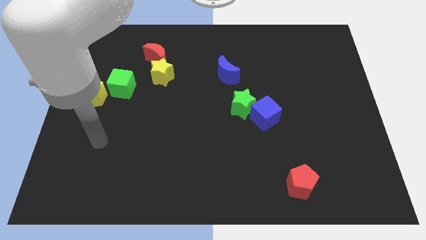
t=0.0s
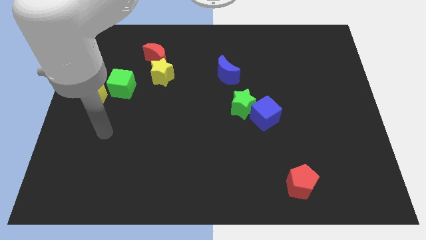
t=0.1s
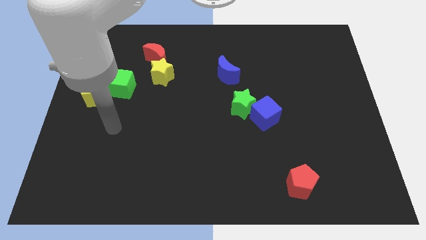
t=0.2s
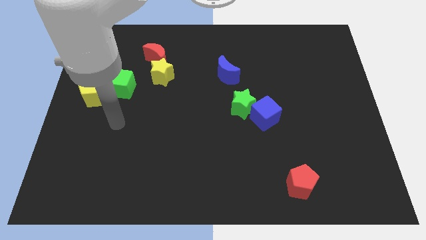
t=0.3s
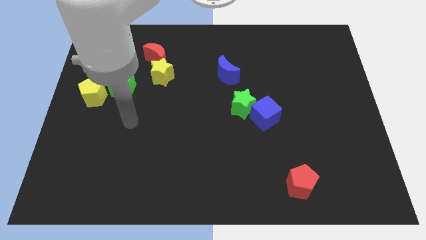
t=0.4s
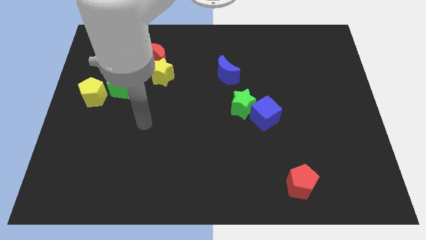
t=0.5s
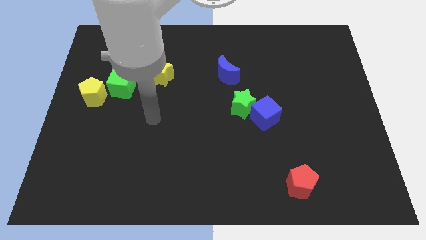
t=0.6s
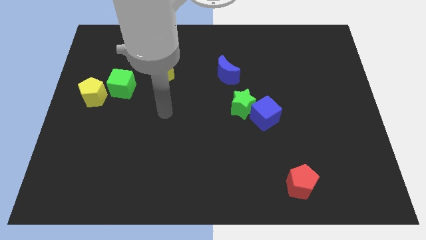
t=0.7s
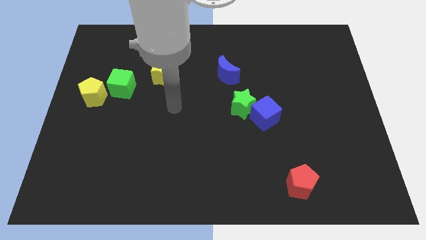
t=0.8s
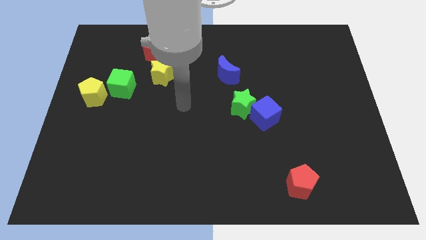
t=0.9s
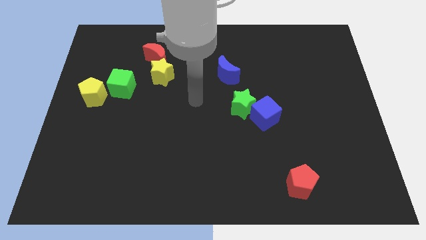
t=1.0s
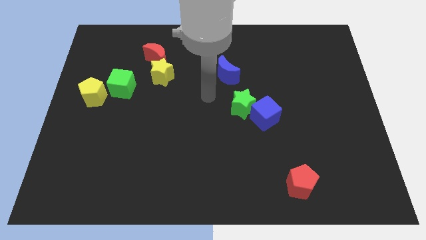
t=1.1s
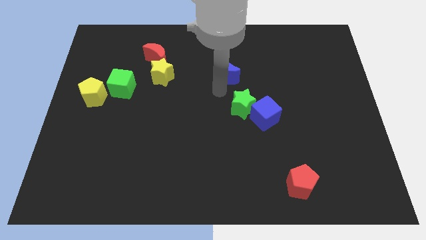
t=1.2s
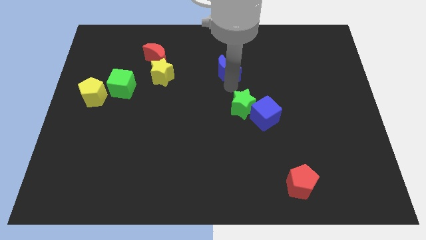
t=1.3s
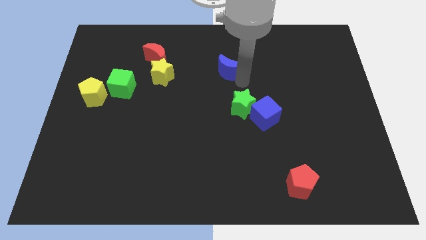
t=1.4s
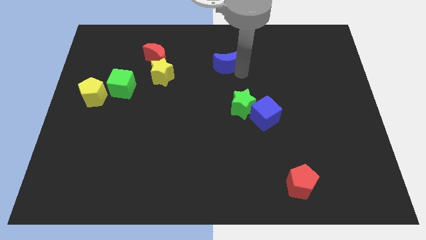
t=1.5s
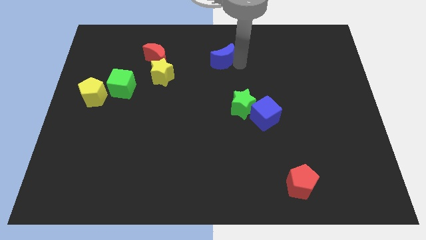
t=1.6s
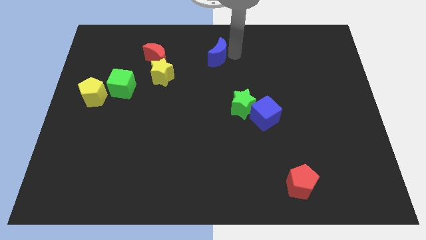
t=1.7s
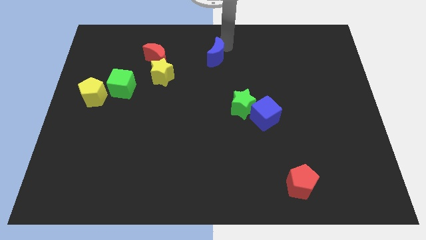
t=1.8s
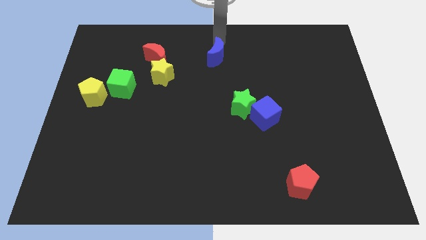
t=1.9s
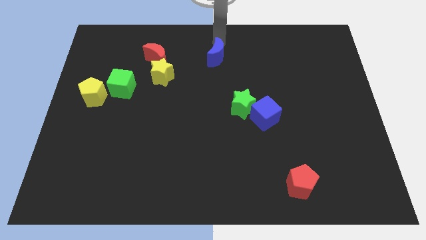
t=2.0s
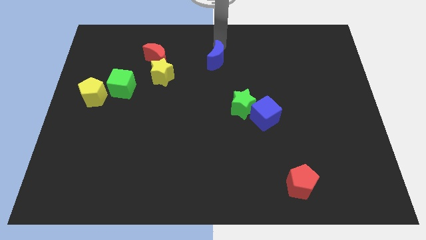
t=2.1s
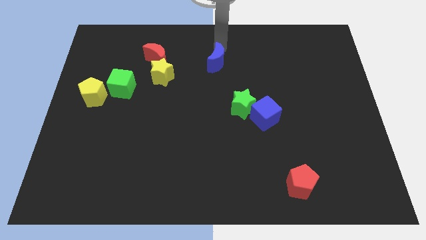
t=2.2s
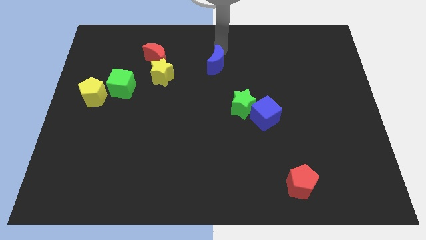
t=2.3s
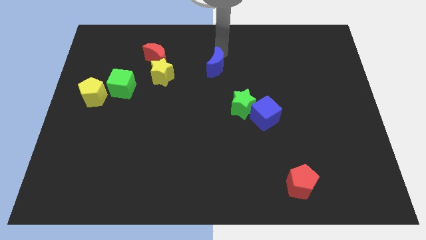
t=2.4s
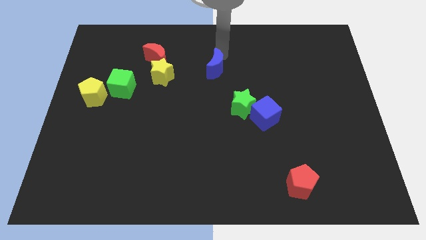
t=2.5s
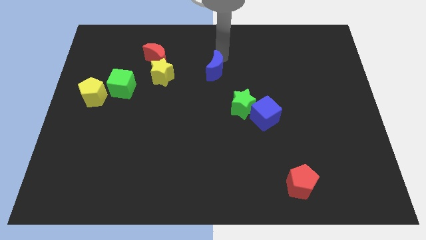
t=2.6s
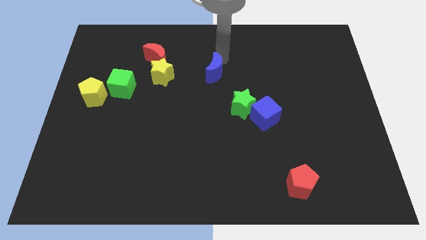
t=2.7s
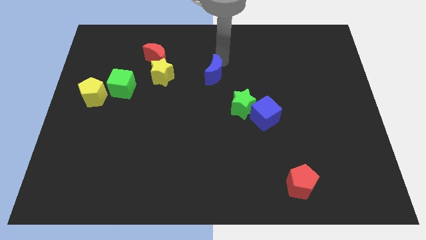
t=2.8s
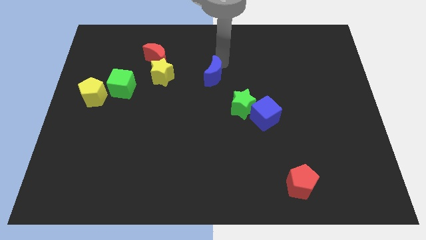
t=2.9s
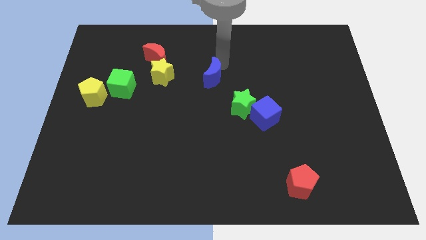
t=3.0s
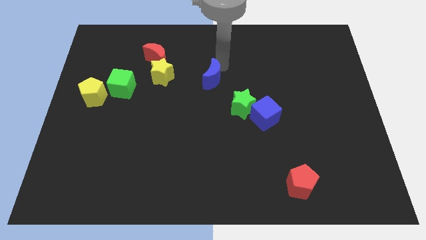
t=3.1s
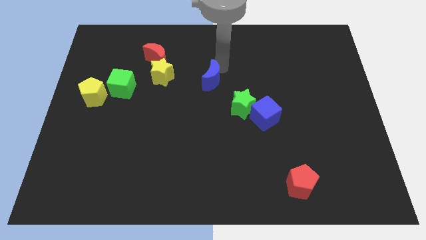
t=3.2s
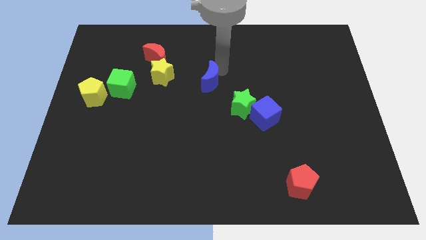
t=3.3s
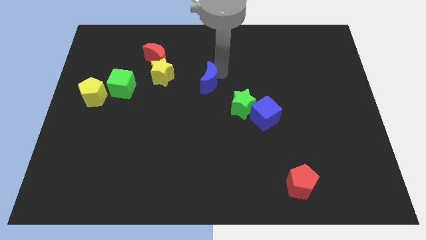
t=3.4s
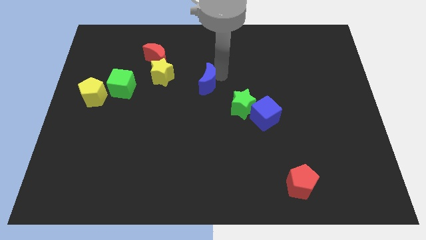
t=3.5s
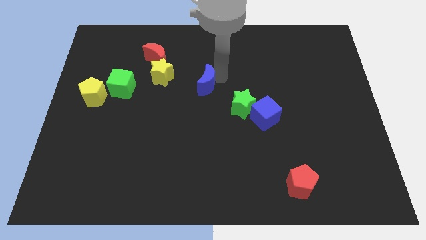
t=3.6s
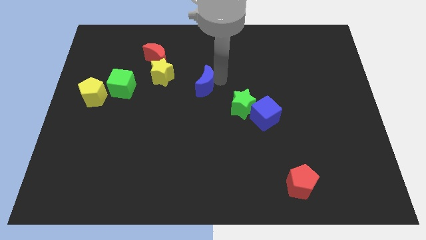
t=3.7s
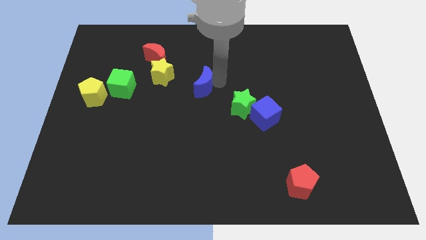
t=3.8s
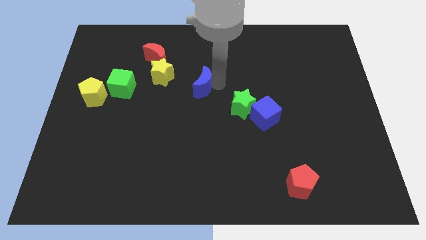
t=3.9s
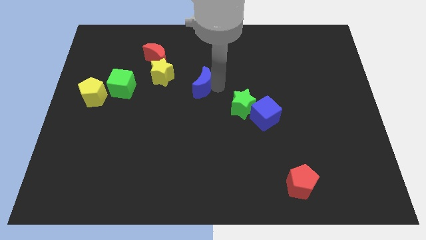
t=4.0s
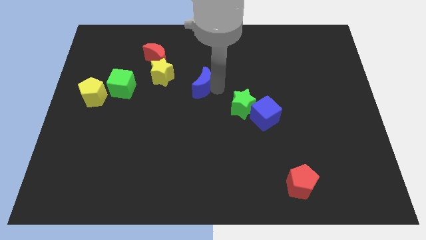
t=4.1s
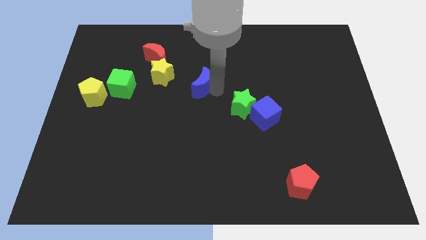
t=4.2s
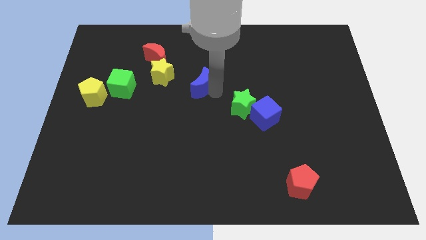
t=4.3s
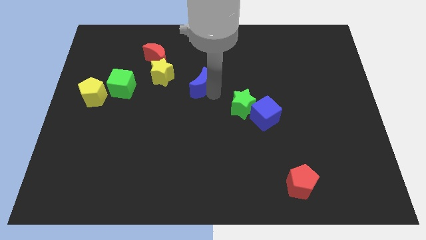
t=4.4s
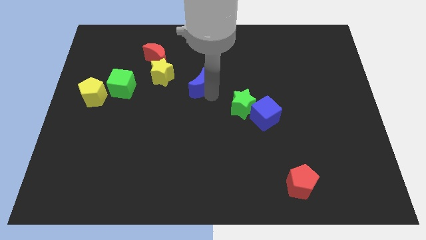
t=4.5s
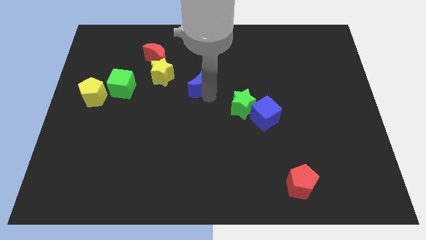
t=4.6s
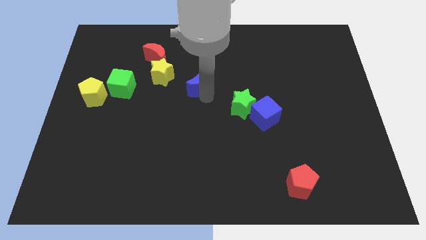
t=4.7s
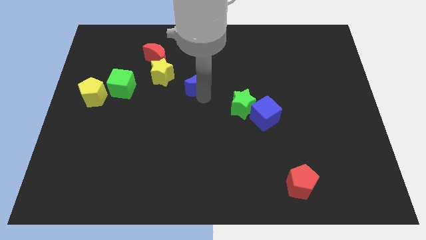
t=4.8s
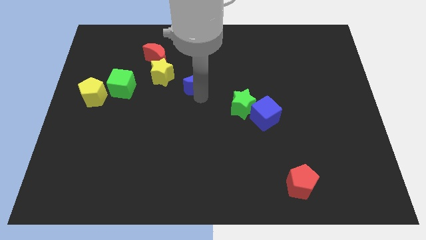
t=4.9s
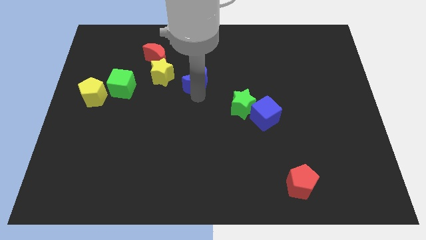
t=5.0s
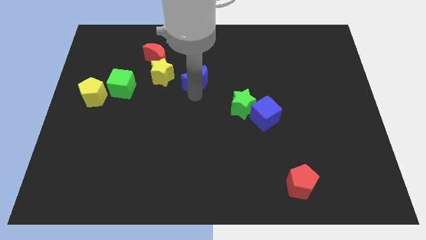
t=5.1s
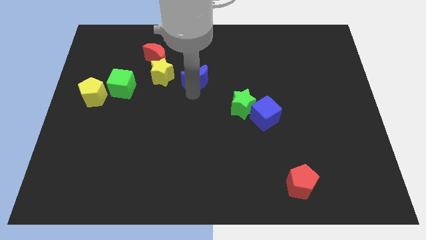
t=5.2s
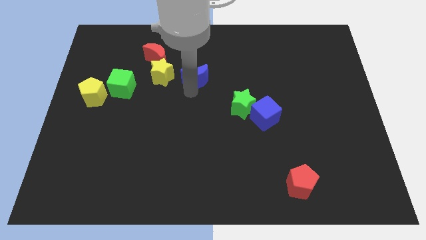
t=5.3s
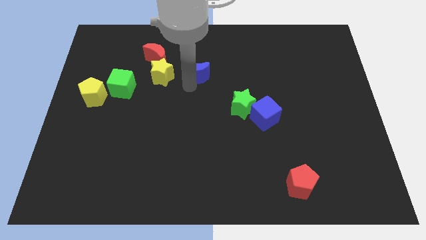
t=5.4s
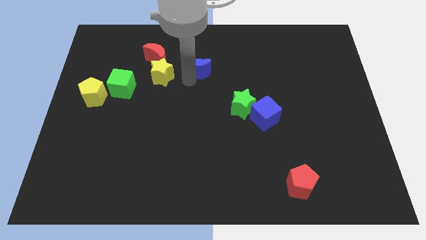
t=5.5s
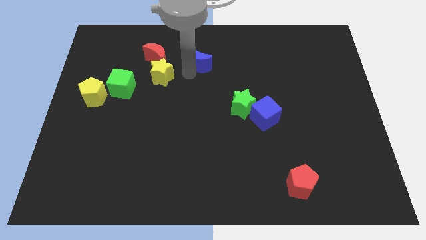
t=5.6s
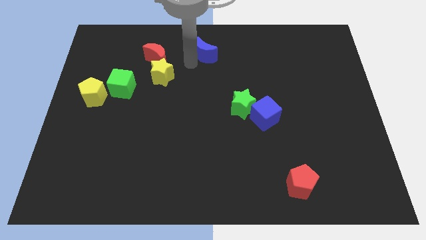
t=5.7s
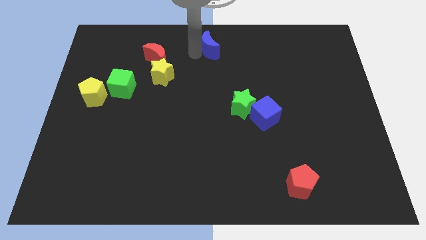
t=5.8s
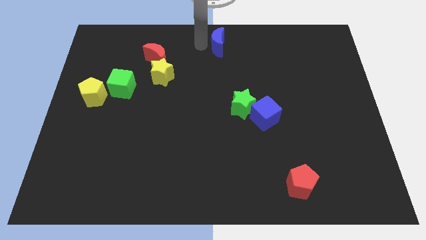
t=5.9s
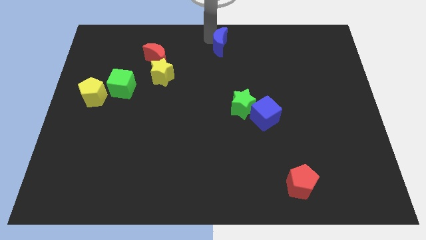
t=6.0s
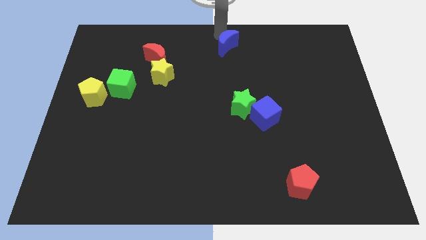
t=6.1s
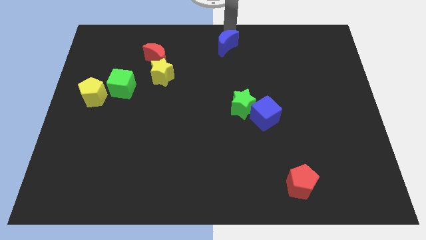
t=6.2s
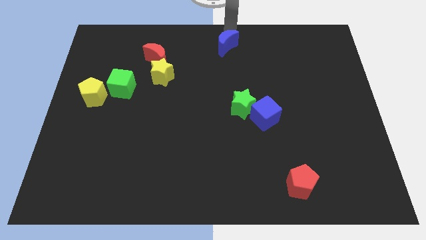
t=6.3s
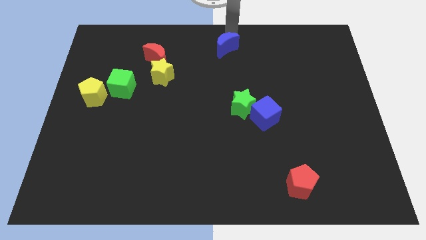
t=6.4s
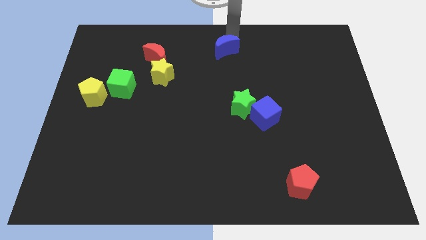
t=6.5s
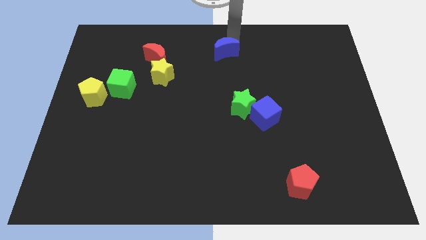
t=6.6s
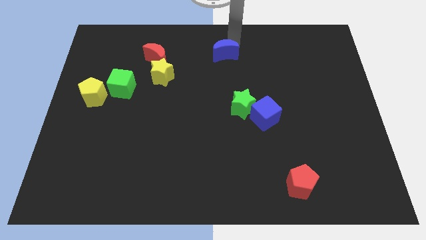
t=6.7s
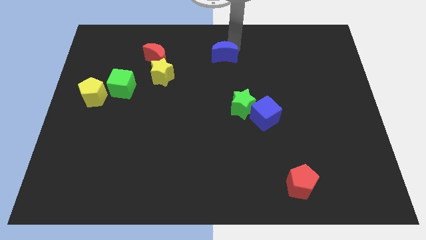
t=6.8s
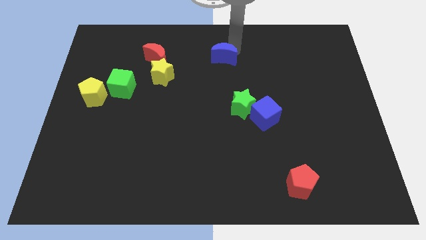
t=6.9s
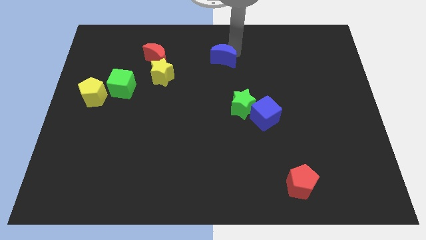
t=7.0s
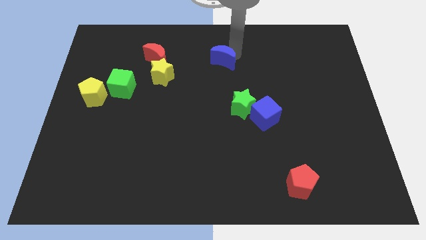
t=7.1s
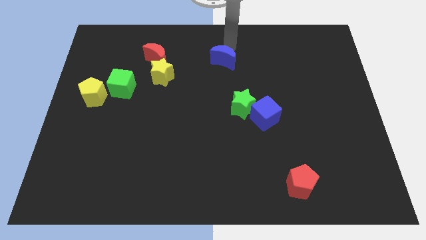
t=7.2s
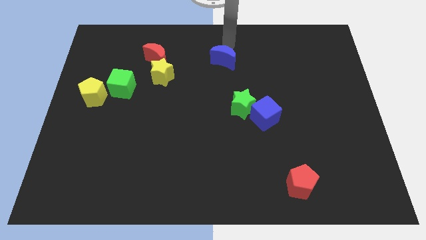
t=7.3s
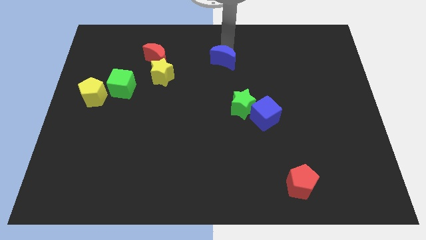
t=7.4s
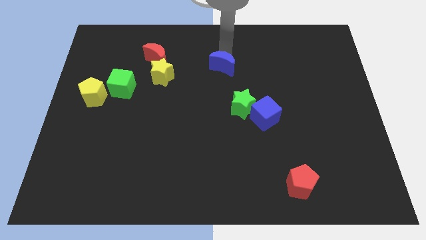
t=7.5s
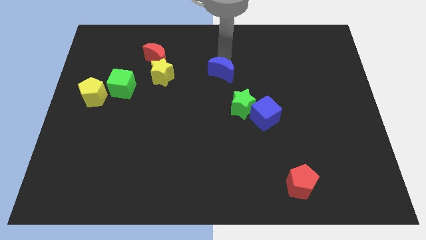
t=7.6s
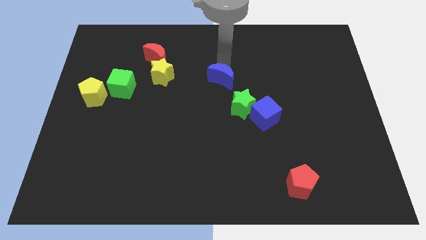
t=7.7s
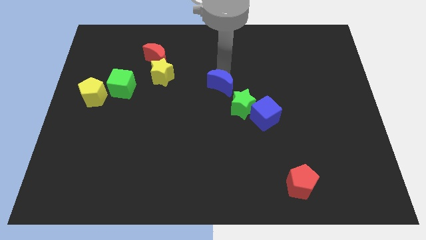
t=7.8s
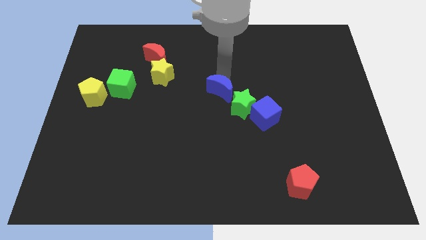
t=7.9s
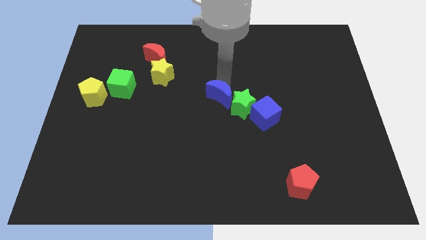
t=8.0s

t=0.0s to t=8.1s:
slightly move the blue moon downwards
